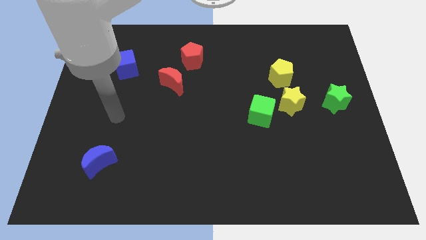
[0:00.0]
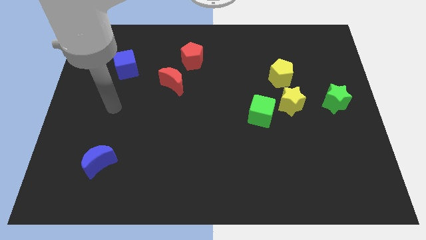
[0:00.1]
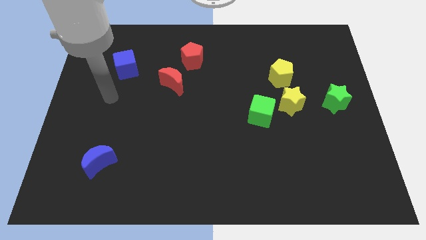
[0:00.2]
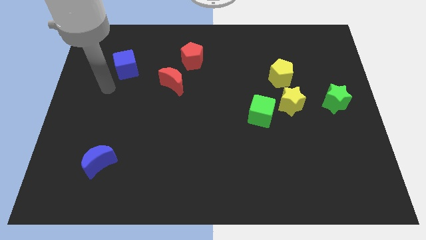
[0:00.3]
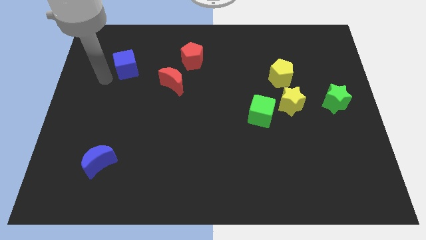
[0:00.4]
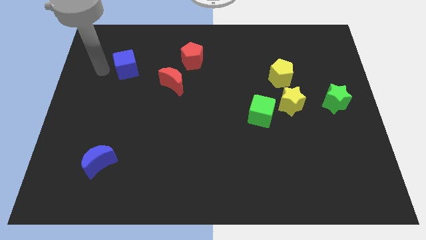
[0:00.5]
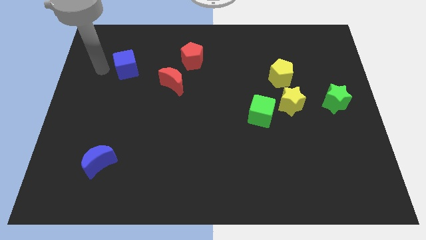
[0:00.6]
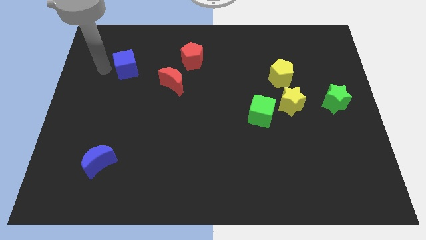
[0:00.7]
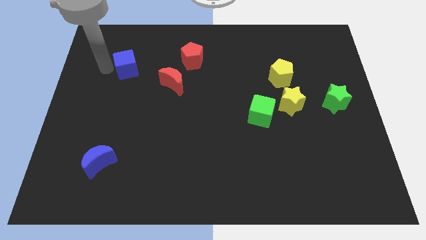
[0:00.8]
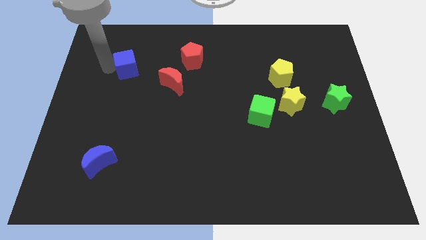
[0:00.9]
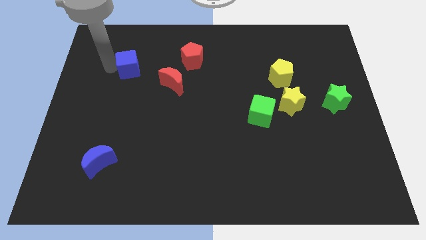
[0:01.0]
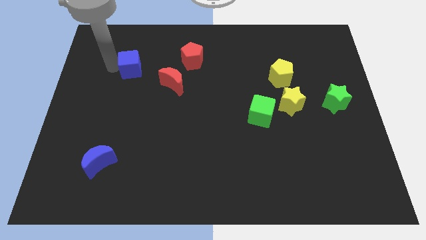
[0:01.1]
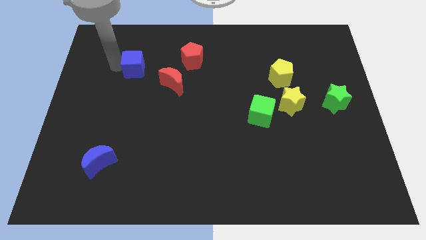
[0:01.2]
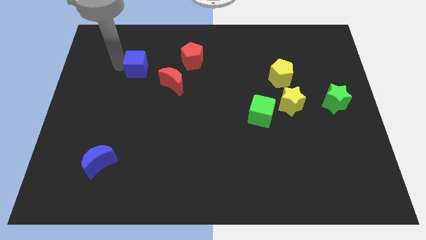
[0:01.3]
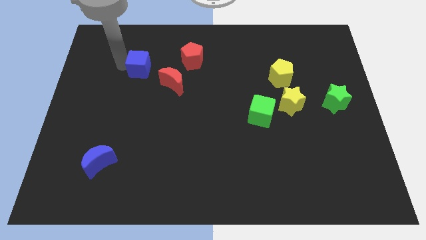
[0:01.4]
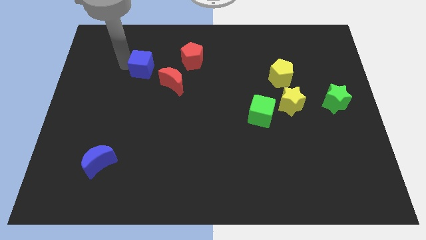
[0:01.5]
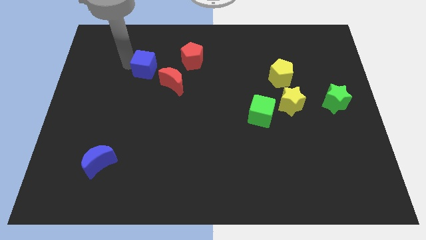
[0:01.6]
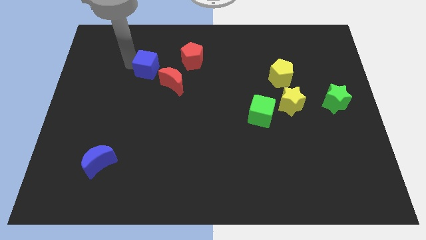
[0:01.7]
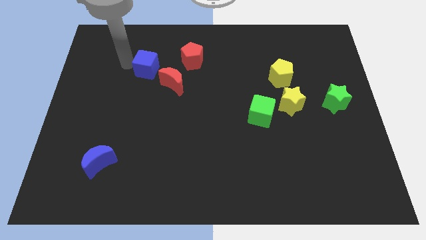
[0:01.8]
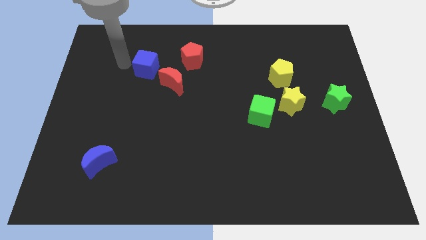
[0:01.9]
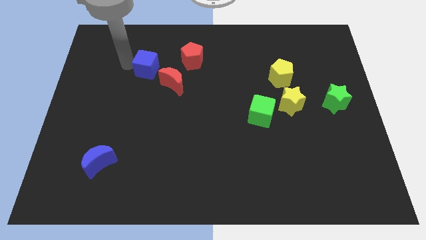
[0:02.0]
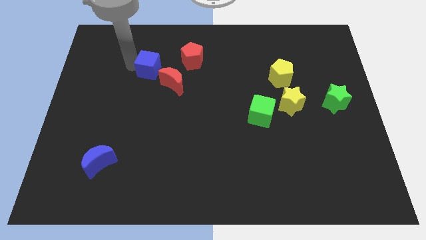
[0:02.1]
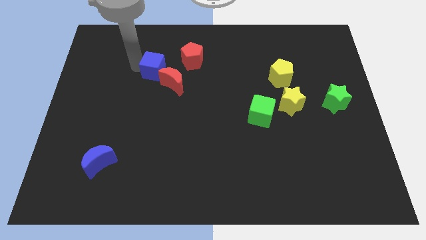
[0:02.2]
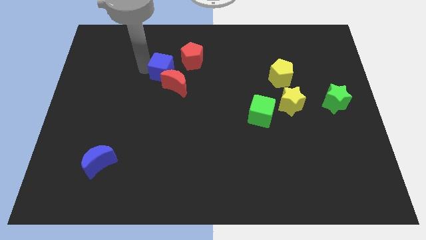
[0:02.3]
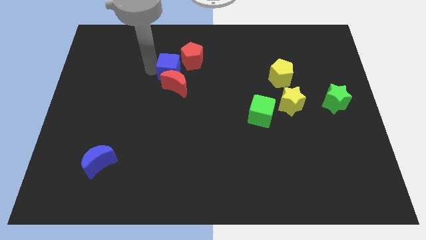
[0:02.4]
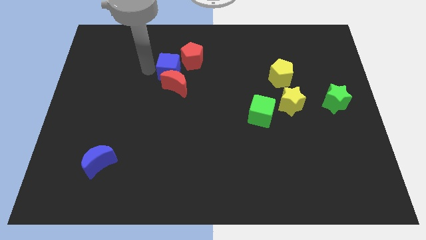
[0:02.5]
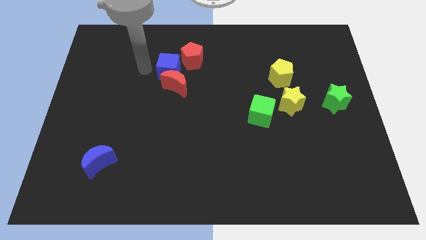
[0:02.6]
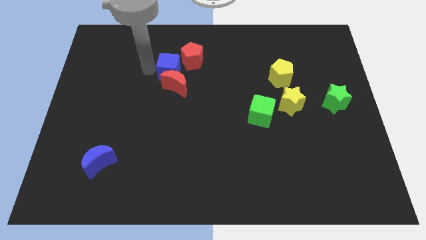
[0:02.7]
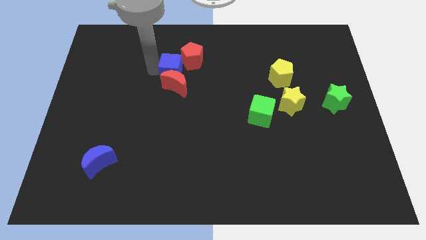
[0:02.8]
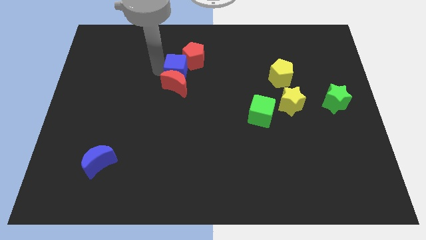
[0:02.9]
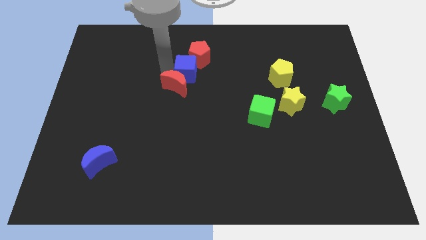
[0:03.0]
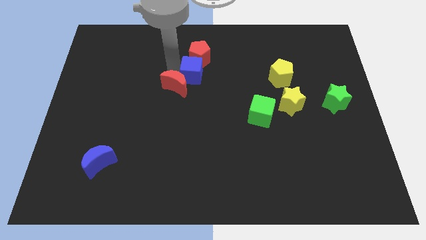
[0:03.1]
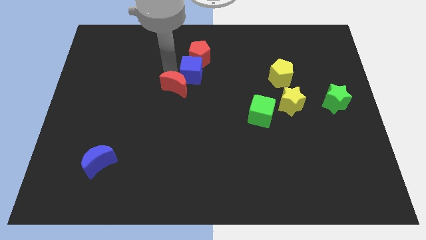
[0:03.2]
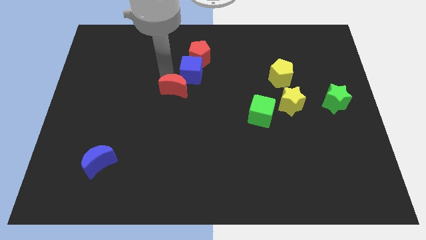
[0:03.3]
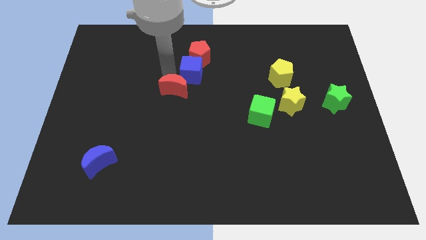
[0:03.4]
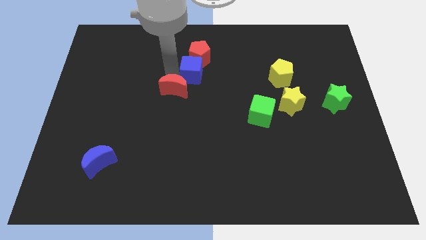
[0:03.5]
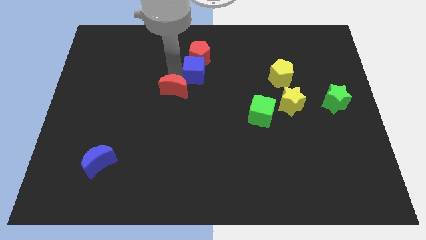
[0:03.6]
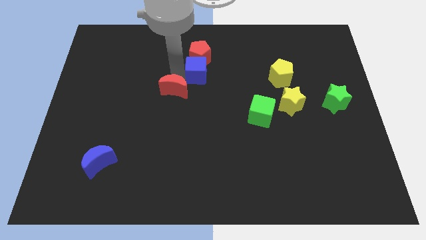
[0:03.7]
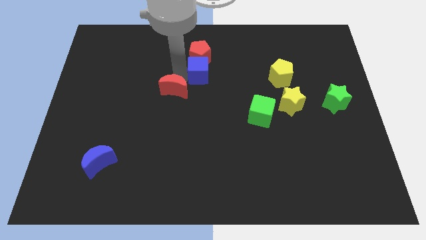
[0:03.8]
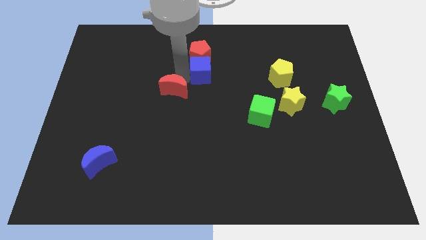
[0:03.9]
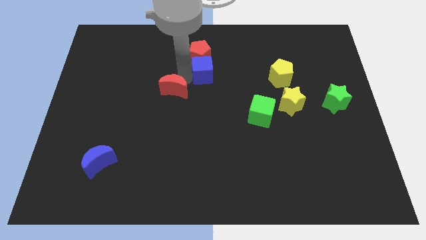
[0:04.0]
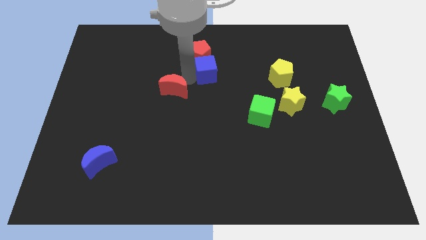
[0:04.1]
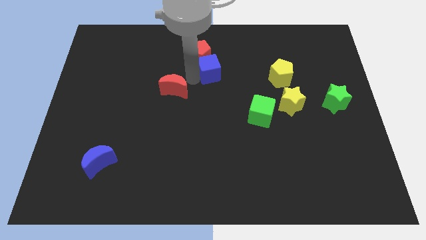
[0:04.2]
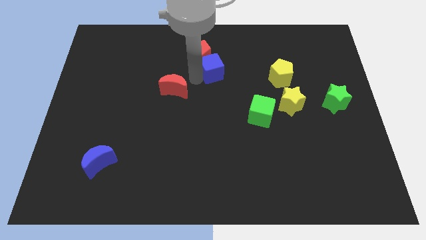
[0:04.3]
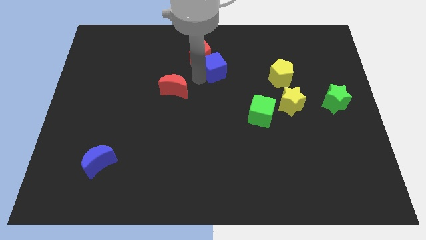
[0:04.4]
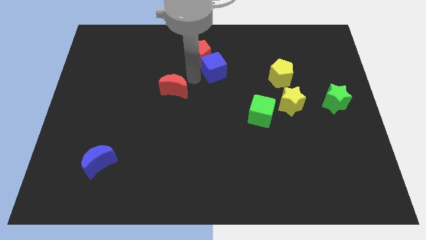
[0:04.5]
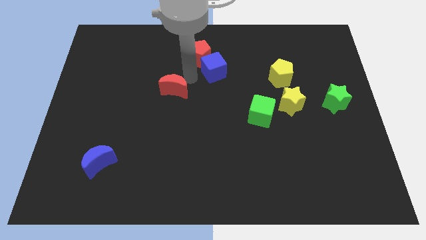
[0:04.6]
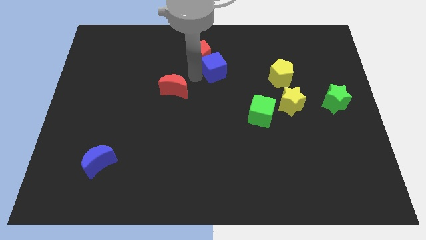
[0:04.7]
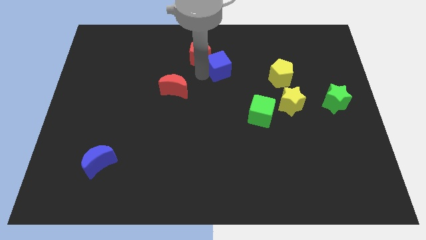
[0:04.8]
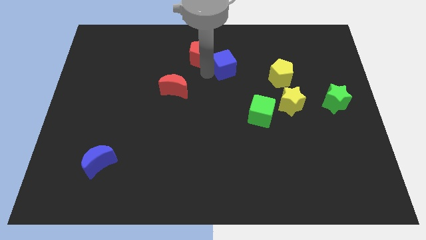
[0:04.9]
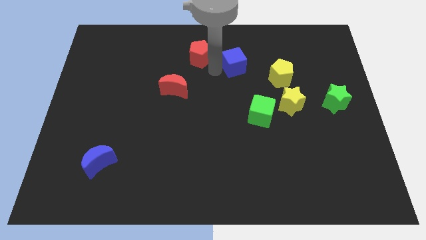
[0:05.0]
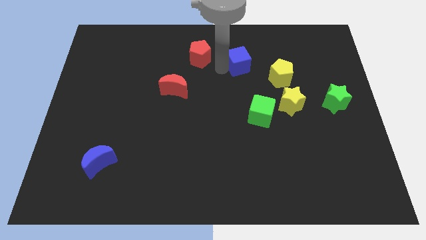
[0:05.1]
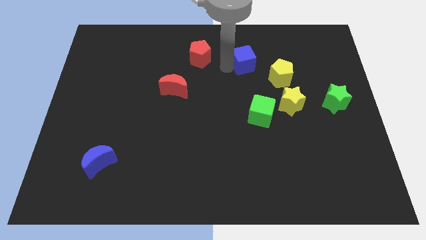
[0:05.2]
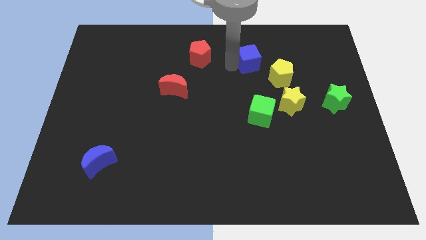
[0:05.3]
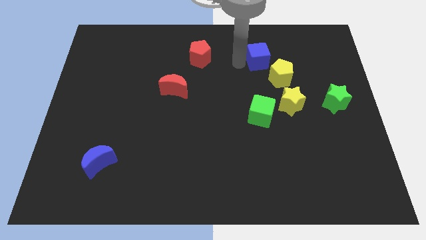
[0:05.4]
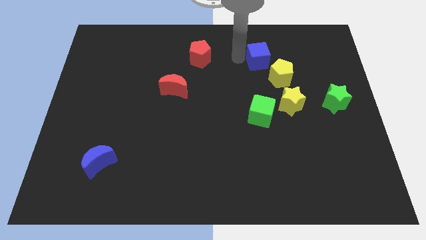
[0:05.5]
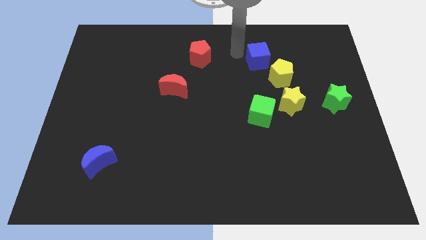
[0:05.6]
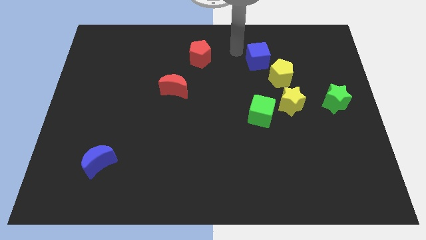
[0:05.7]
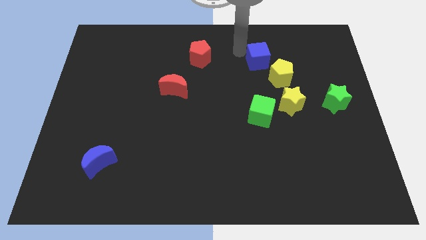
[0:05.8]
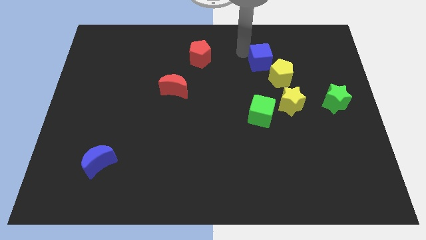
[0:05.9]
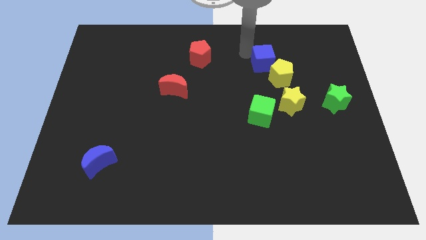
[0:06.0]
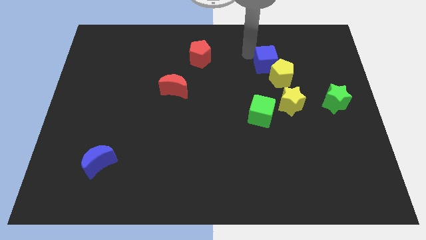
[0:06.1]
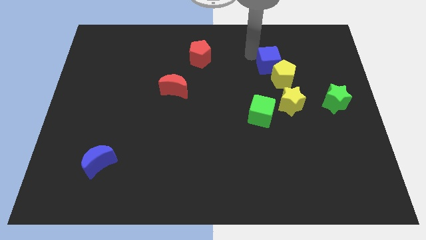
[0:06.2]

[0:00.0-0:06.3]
move the blue cube above the yellow star

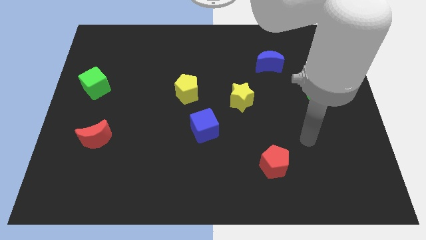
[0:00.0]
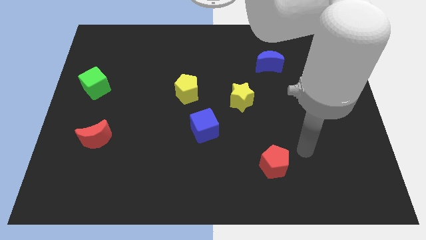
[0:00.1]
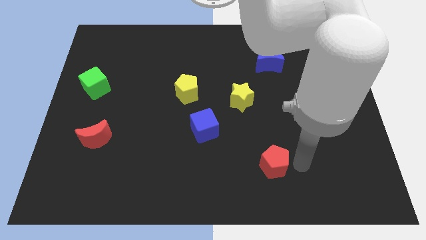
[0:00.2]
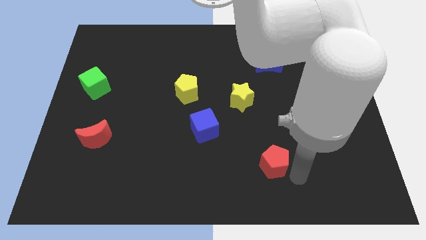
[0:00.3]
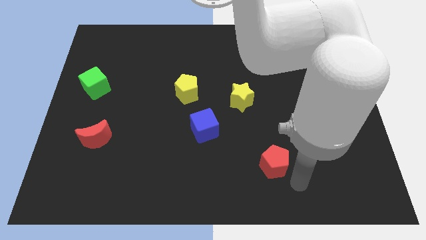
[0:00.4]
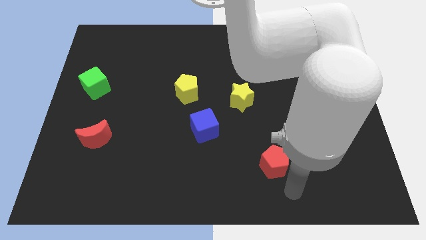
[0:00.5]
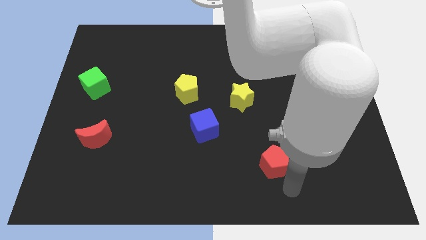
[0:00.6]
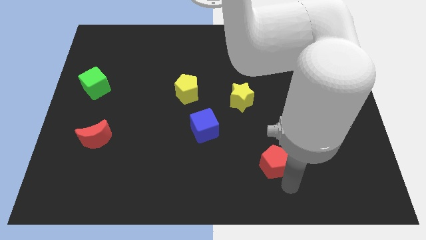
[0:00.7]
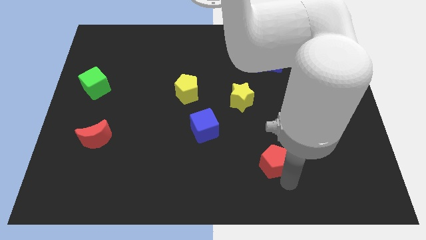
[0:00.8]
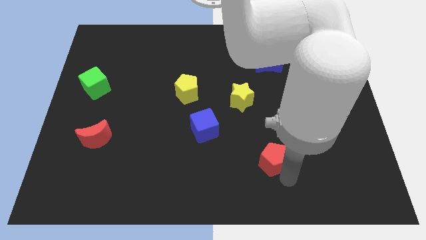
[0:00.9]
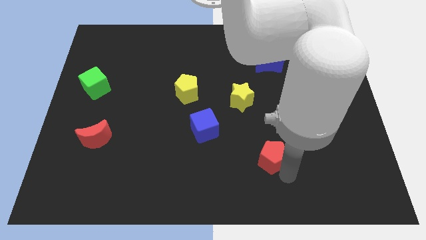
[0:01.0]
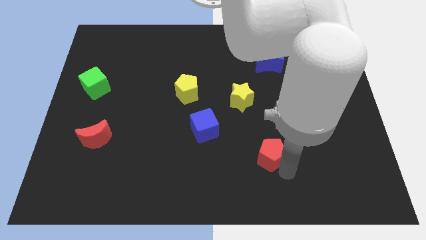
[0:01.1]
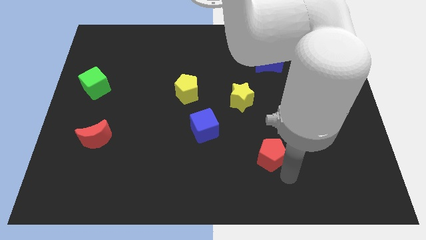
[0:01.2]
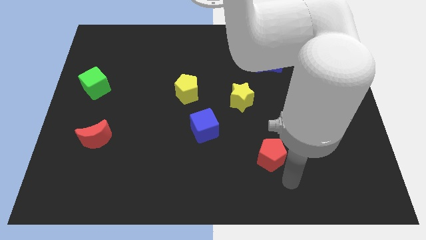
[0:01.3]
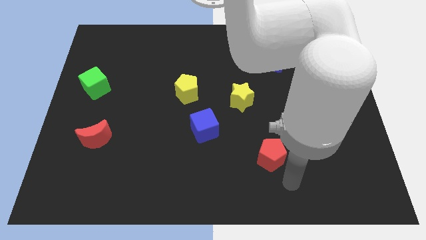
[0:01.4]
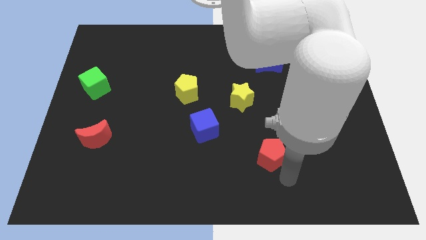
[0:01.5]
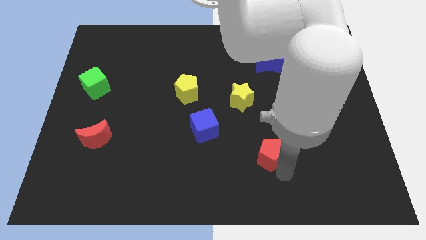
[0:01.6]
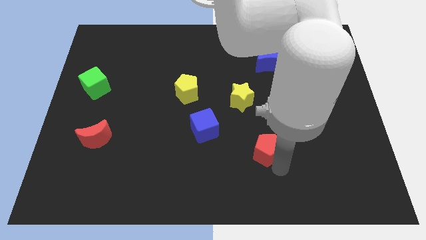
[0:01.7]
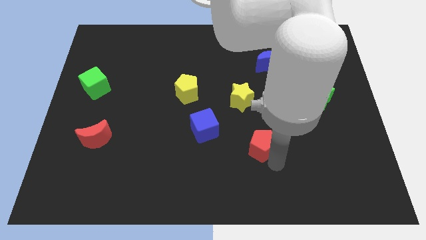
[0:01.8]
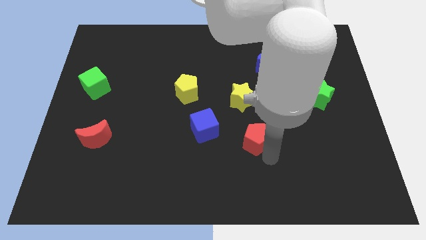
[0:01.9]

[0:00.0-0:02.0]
put the red pentagon to the right of the blue cube
